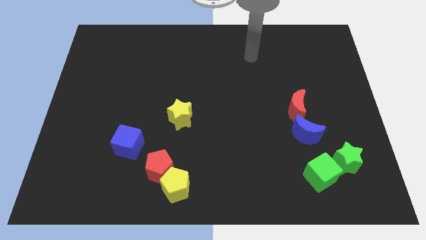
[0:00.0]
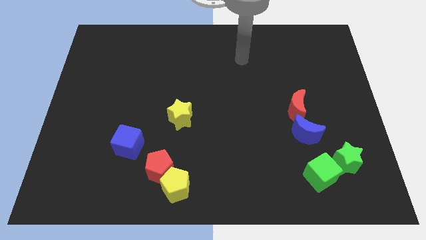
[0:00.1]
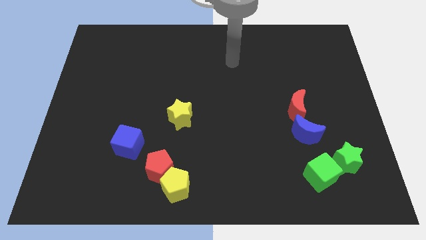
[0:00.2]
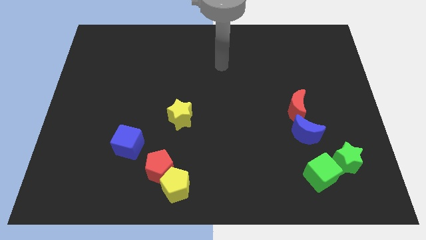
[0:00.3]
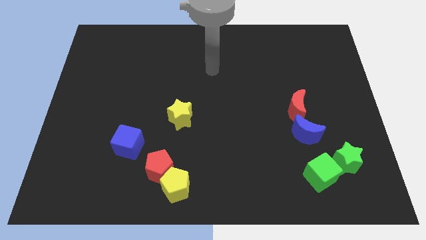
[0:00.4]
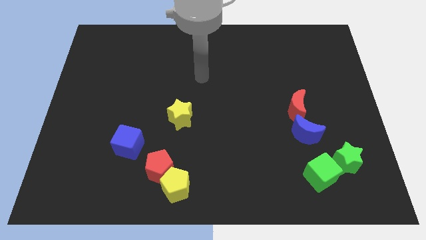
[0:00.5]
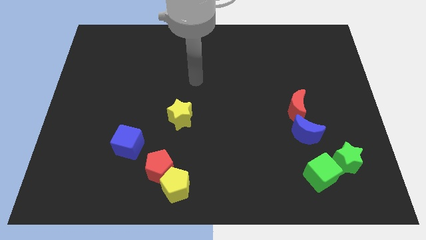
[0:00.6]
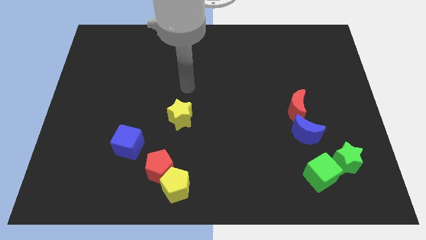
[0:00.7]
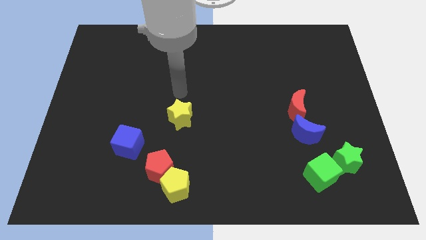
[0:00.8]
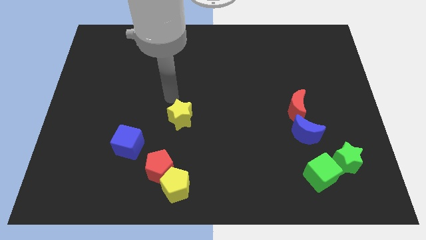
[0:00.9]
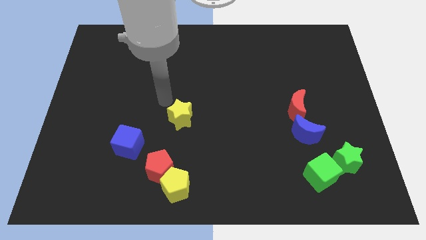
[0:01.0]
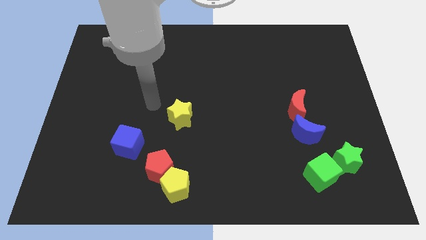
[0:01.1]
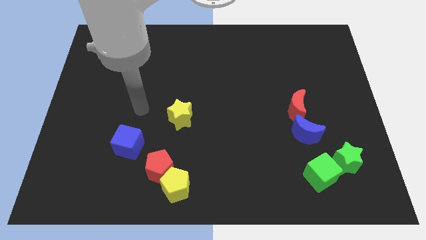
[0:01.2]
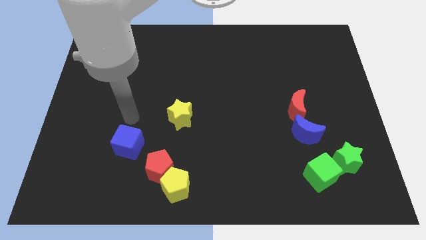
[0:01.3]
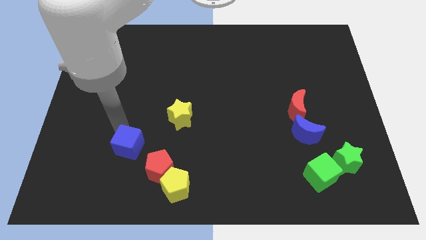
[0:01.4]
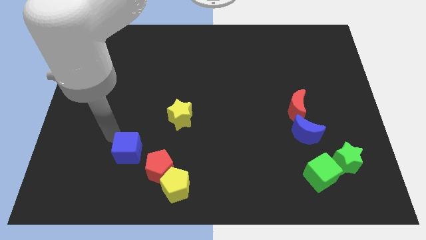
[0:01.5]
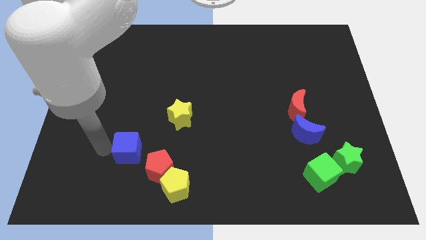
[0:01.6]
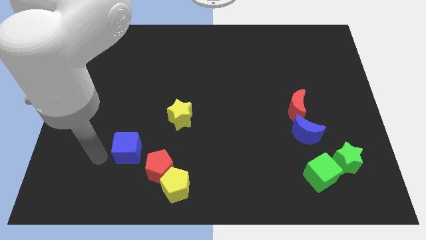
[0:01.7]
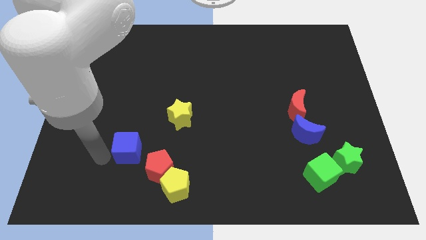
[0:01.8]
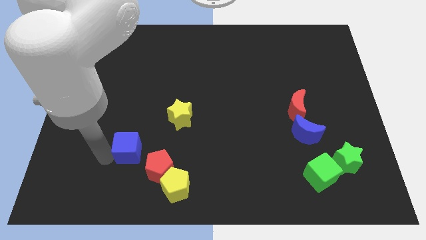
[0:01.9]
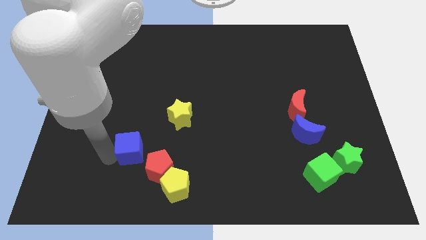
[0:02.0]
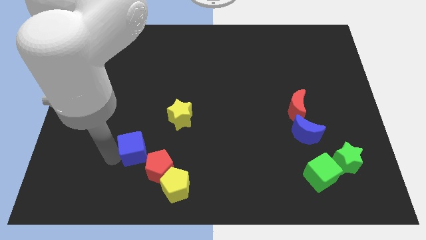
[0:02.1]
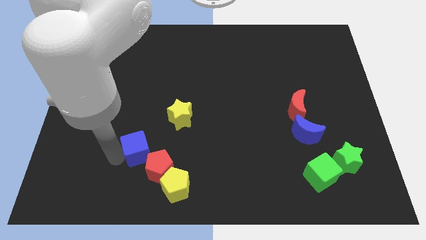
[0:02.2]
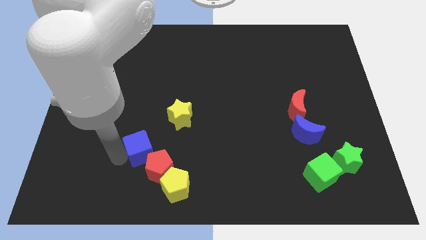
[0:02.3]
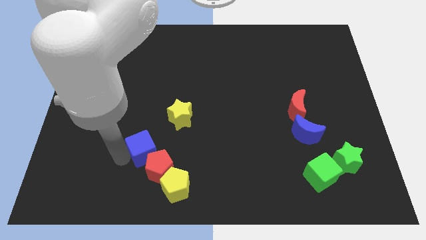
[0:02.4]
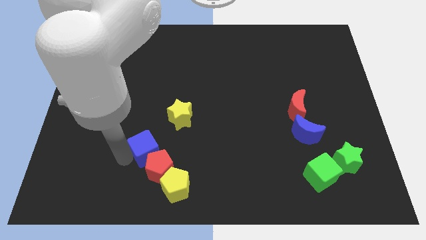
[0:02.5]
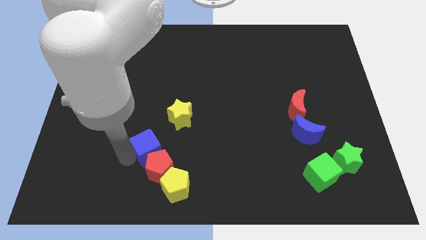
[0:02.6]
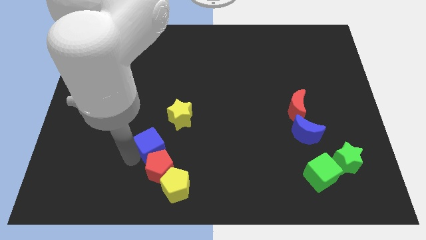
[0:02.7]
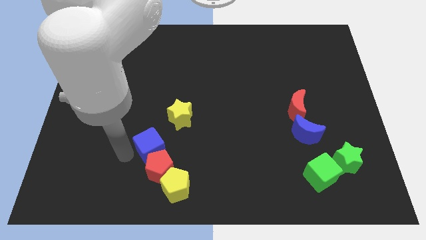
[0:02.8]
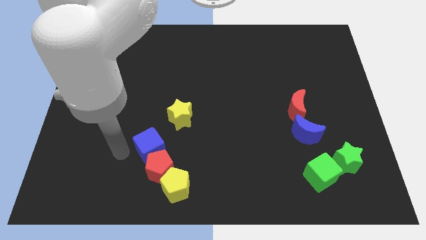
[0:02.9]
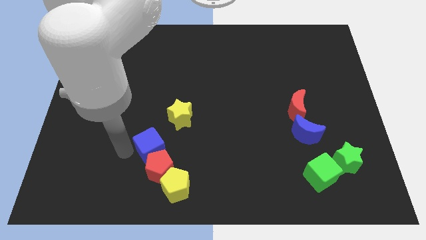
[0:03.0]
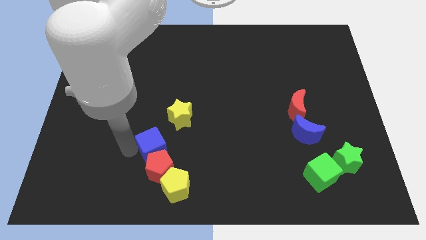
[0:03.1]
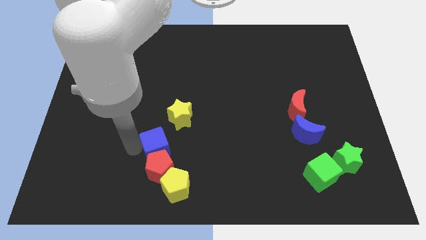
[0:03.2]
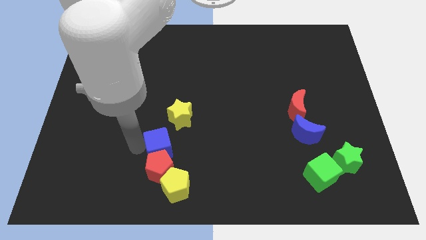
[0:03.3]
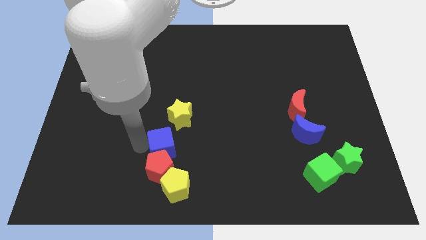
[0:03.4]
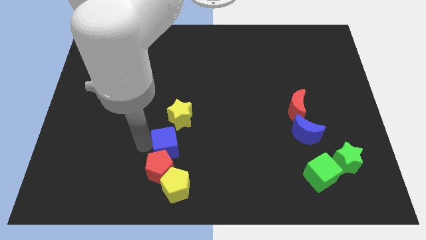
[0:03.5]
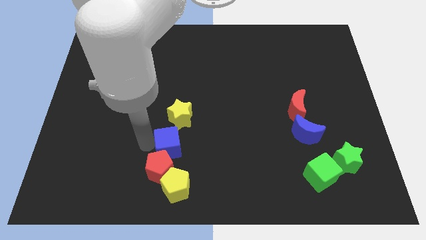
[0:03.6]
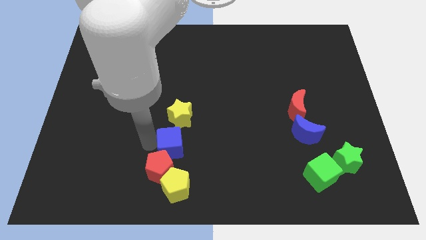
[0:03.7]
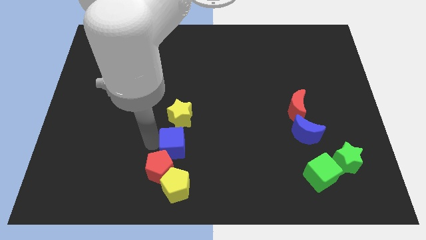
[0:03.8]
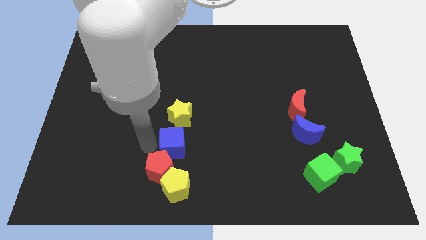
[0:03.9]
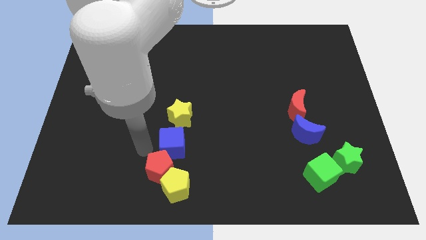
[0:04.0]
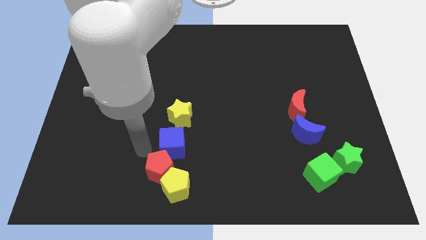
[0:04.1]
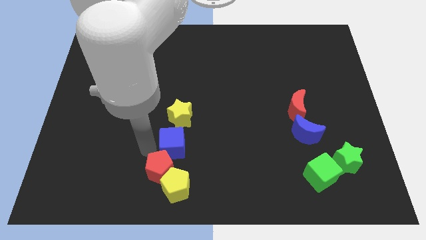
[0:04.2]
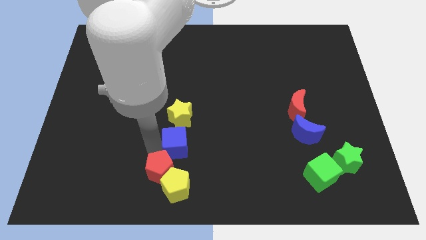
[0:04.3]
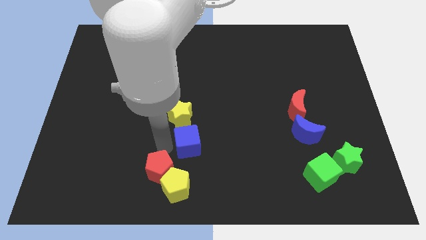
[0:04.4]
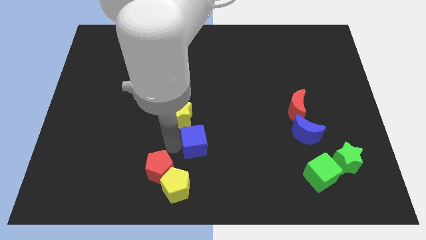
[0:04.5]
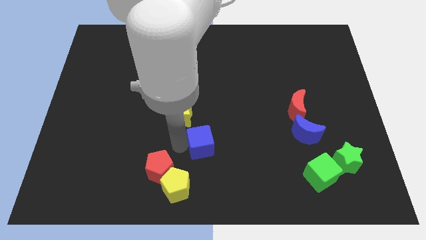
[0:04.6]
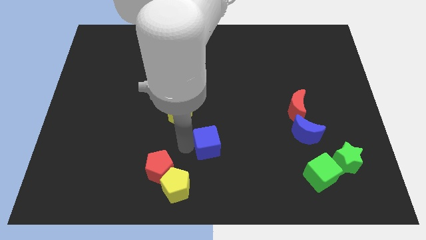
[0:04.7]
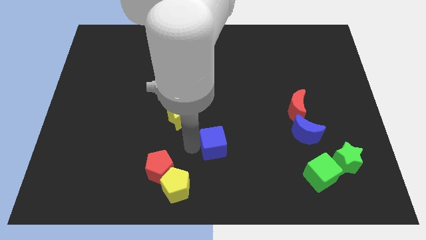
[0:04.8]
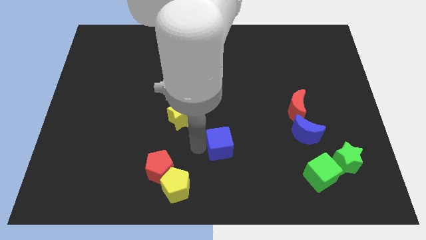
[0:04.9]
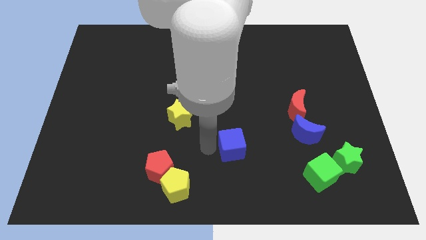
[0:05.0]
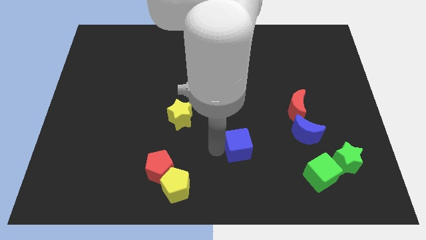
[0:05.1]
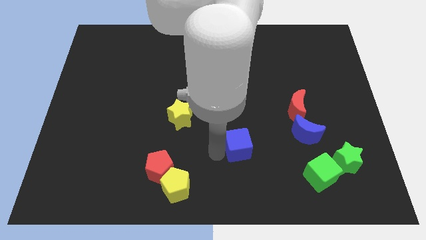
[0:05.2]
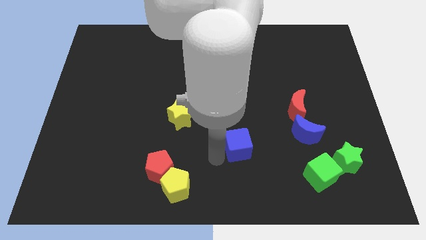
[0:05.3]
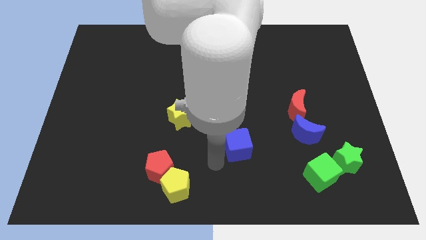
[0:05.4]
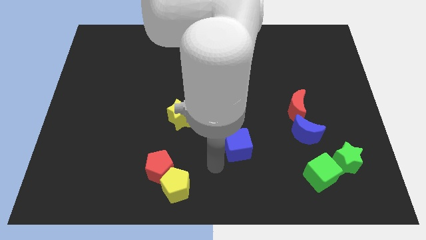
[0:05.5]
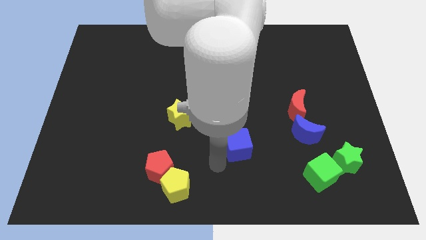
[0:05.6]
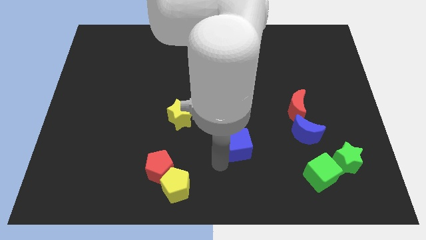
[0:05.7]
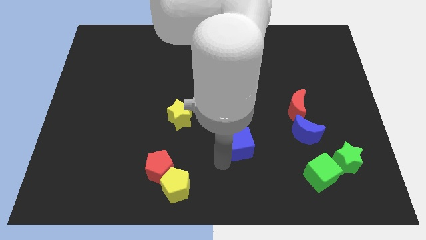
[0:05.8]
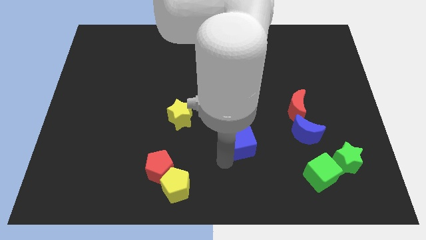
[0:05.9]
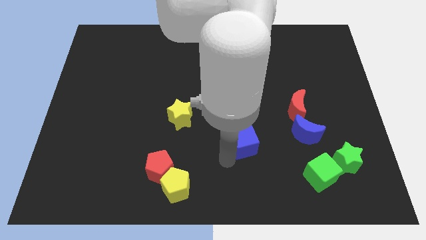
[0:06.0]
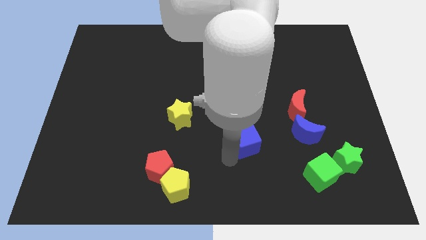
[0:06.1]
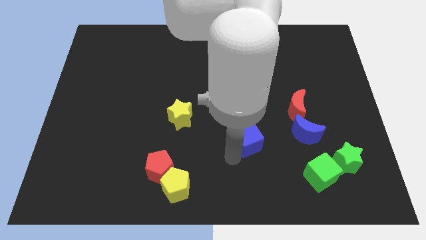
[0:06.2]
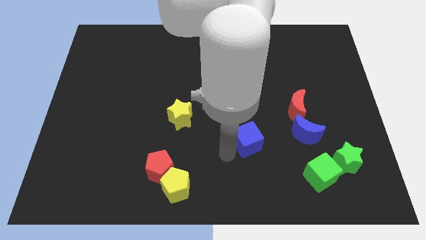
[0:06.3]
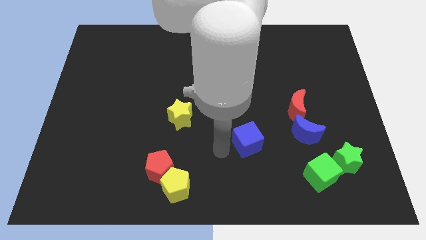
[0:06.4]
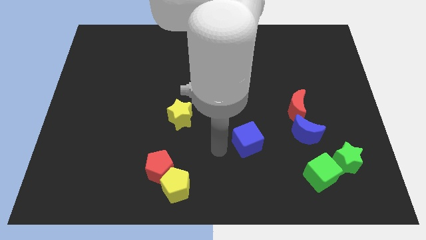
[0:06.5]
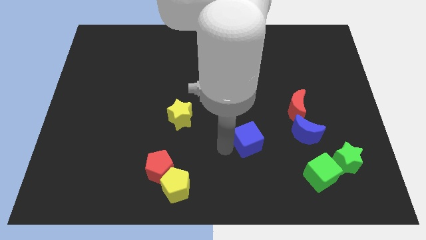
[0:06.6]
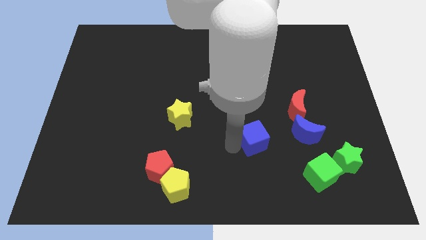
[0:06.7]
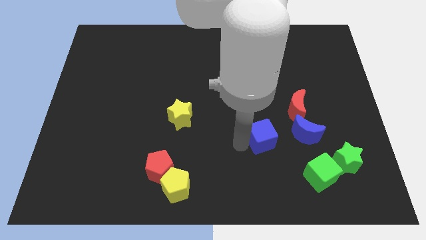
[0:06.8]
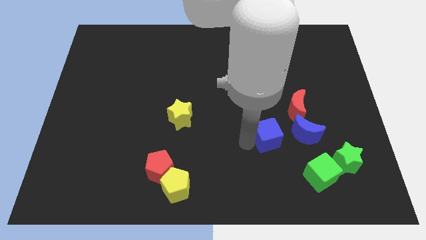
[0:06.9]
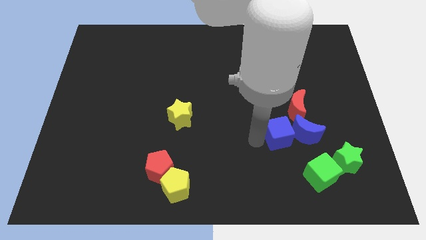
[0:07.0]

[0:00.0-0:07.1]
put the blue cube to the blue moon

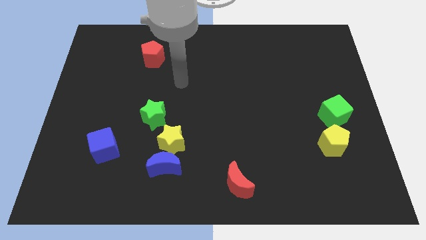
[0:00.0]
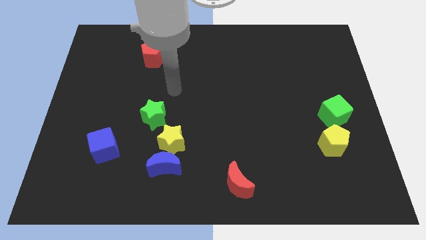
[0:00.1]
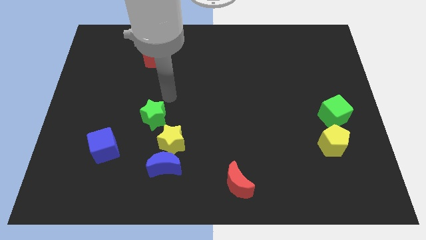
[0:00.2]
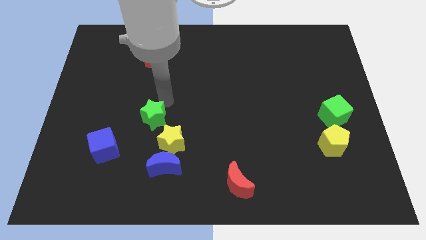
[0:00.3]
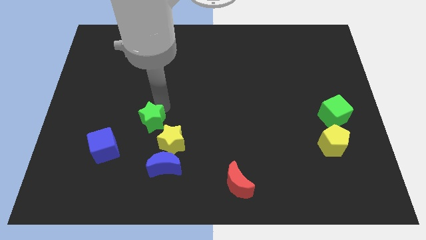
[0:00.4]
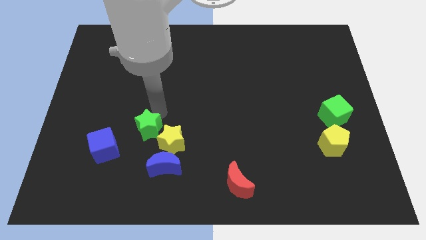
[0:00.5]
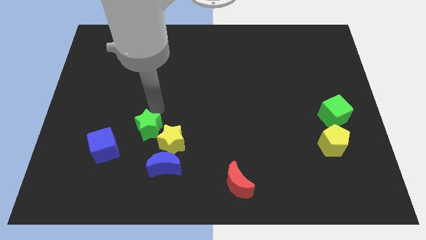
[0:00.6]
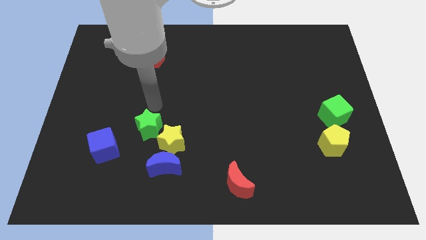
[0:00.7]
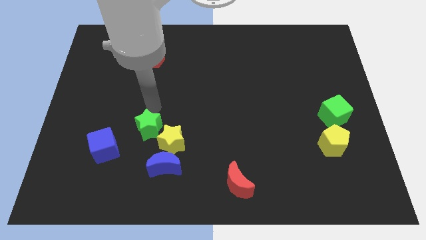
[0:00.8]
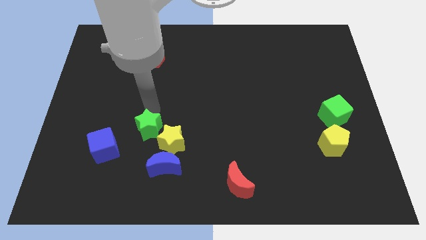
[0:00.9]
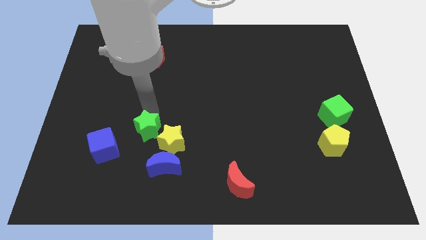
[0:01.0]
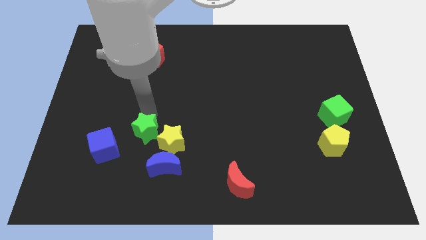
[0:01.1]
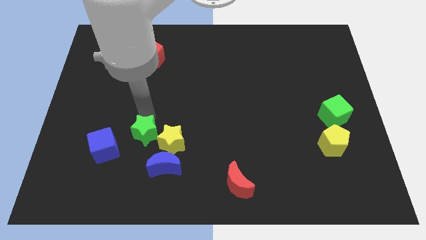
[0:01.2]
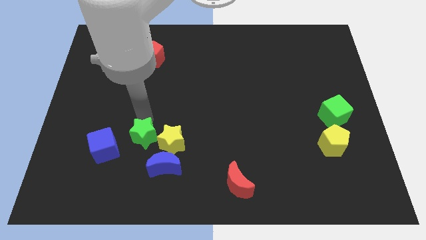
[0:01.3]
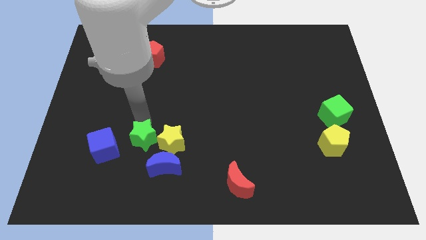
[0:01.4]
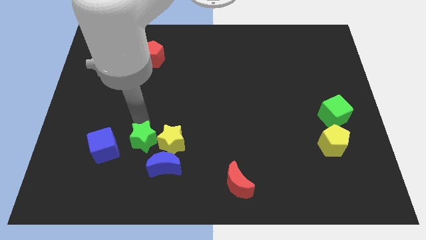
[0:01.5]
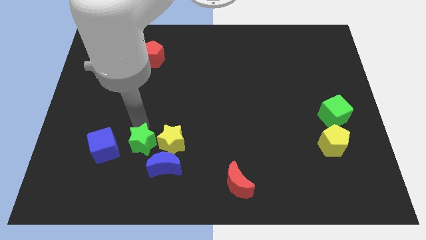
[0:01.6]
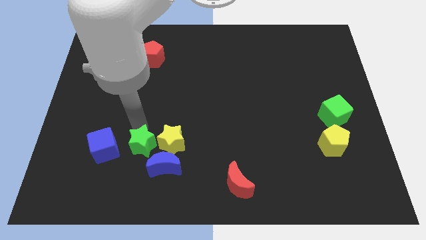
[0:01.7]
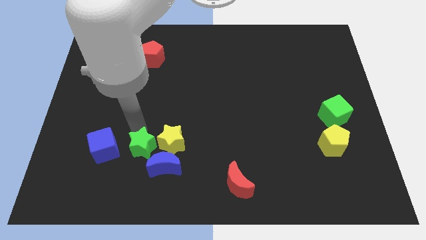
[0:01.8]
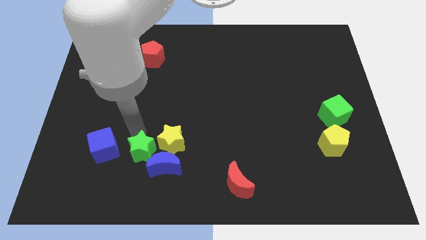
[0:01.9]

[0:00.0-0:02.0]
push the green star to the blue moon
